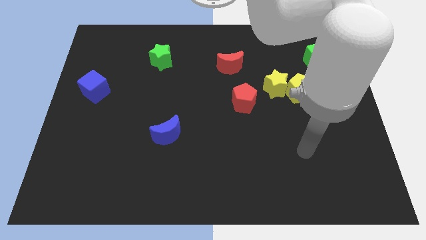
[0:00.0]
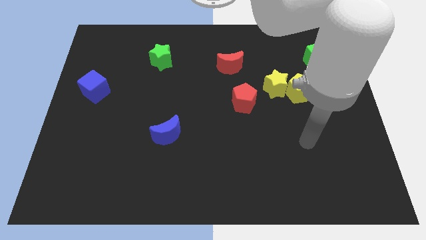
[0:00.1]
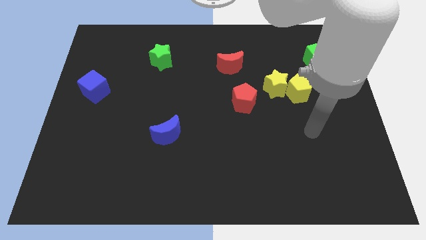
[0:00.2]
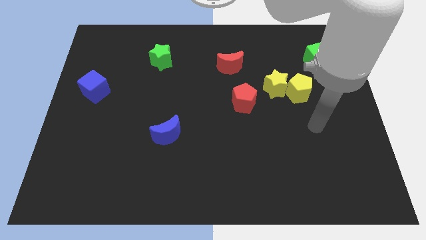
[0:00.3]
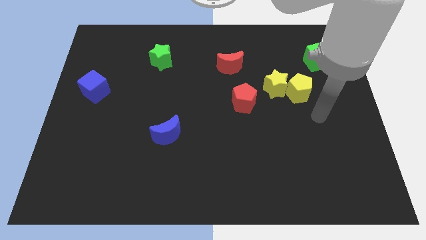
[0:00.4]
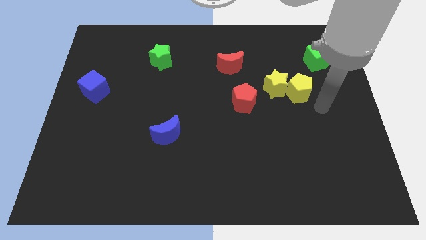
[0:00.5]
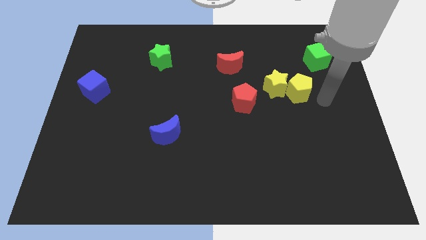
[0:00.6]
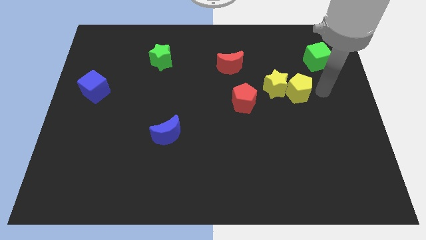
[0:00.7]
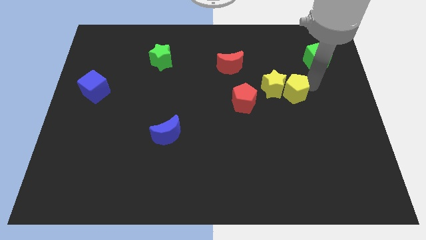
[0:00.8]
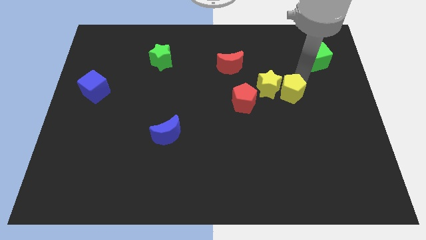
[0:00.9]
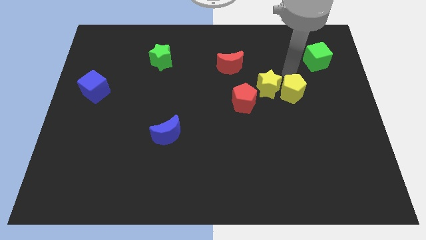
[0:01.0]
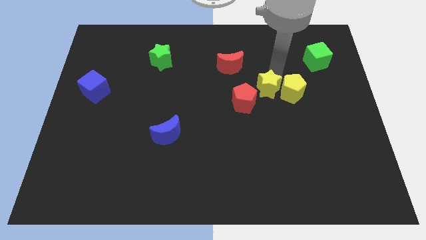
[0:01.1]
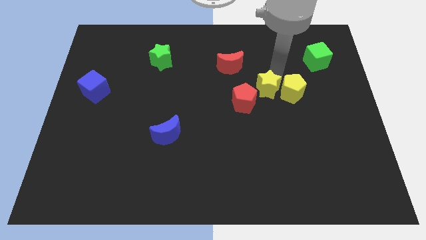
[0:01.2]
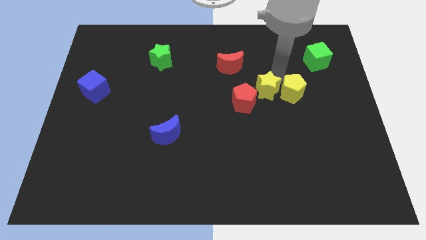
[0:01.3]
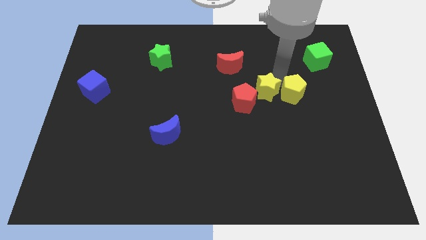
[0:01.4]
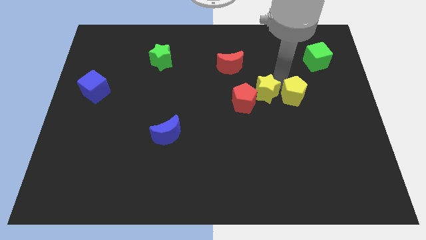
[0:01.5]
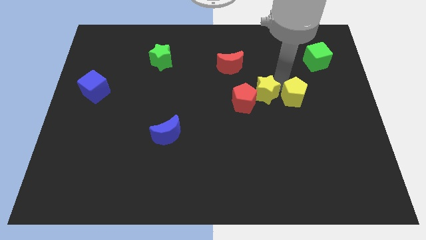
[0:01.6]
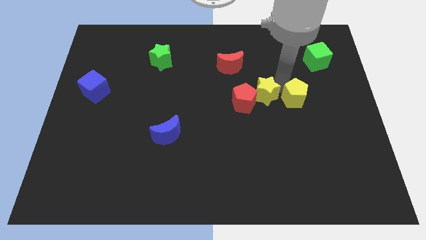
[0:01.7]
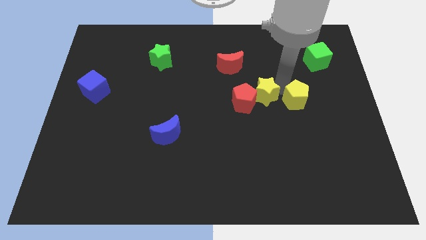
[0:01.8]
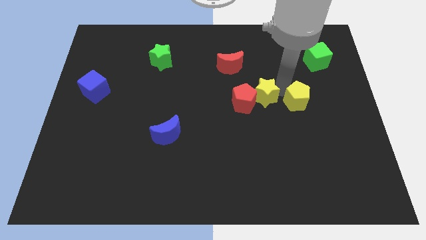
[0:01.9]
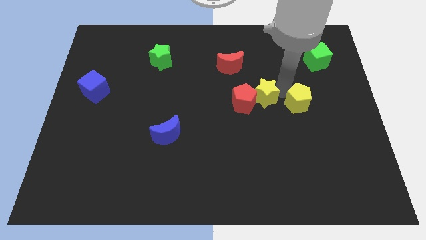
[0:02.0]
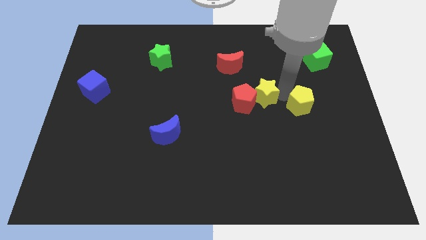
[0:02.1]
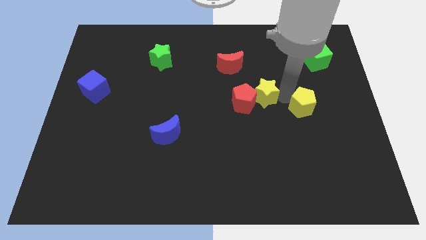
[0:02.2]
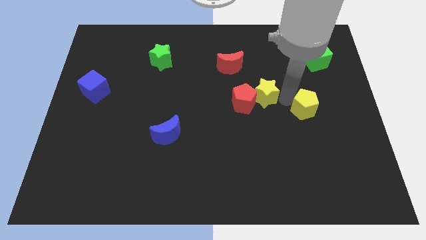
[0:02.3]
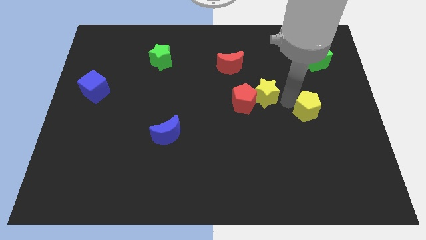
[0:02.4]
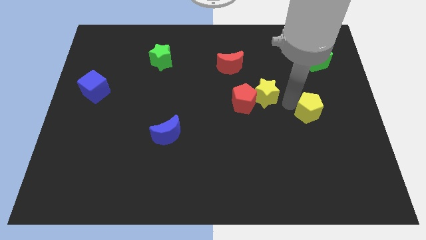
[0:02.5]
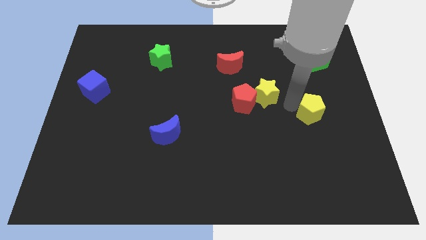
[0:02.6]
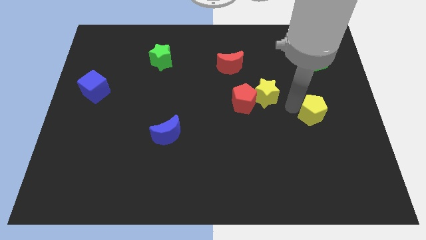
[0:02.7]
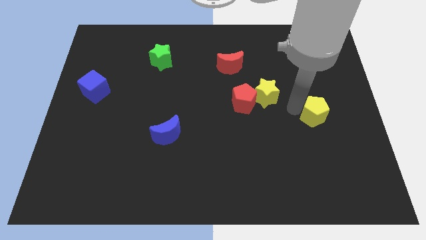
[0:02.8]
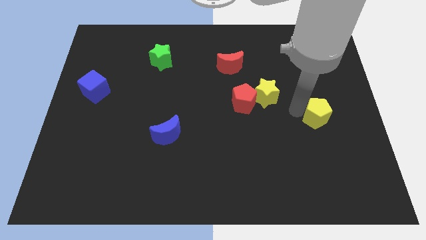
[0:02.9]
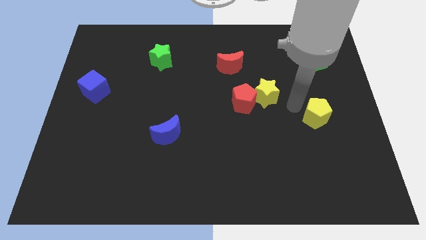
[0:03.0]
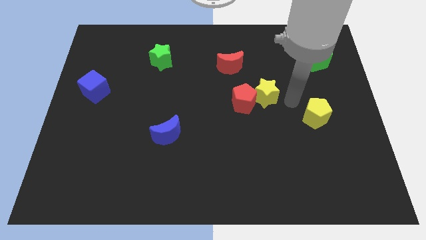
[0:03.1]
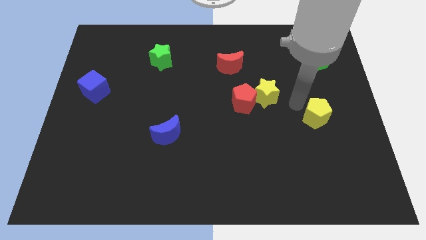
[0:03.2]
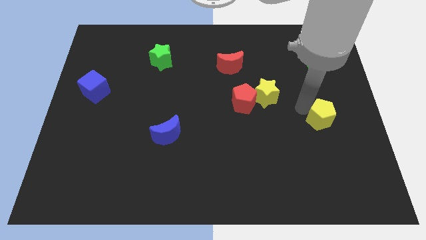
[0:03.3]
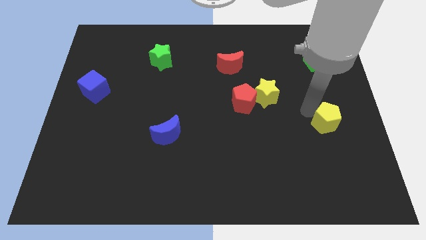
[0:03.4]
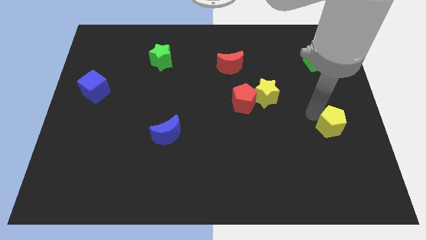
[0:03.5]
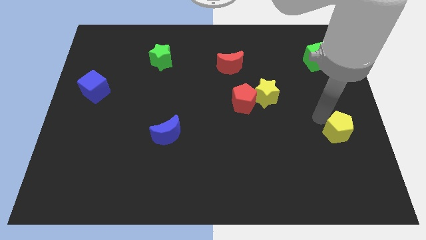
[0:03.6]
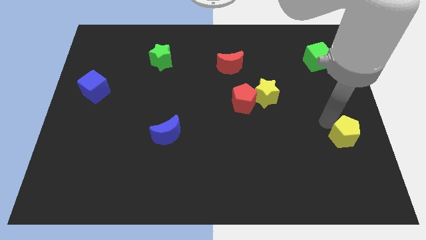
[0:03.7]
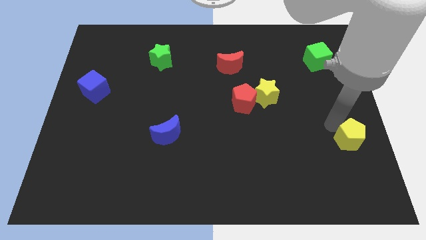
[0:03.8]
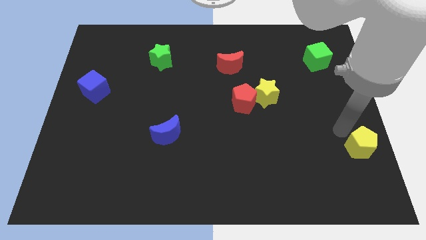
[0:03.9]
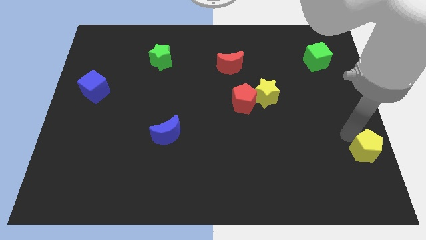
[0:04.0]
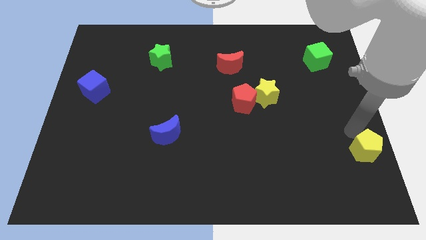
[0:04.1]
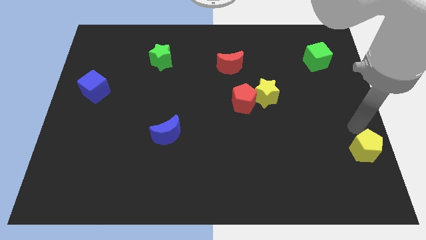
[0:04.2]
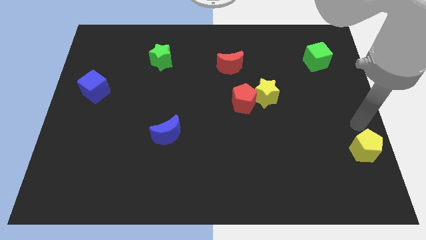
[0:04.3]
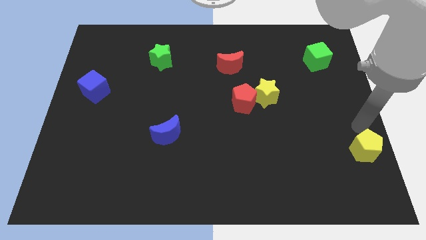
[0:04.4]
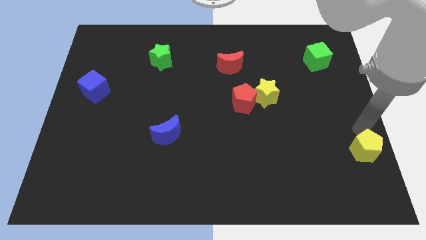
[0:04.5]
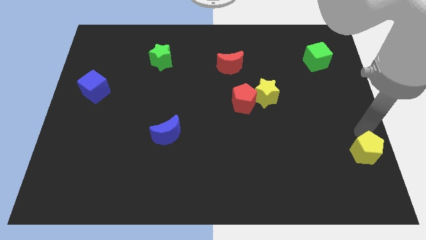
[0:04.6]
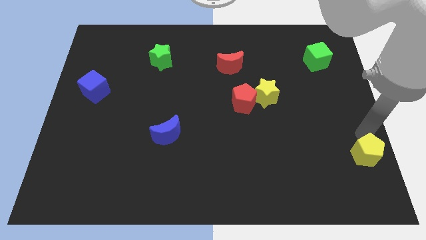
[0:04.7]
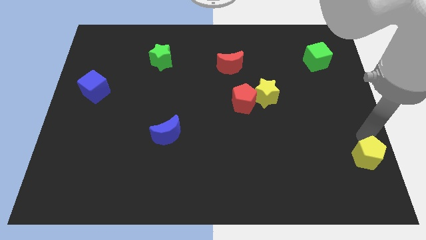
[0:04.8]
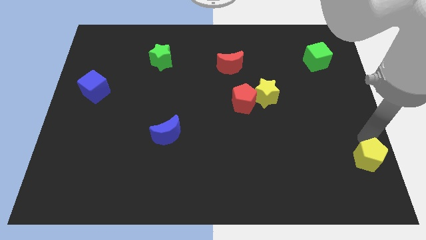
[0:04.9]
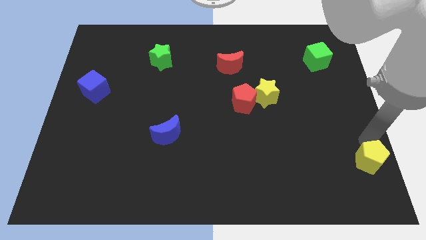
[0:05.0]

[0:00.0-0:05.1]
slide the yellow pentagon to the bottom right of the board

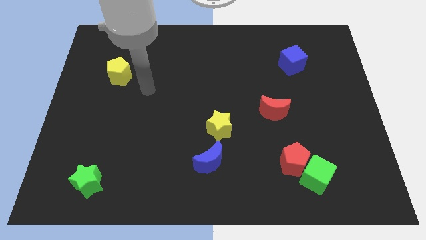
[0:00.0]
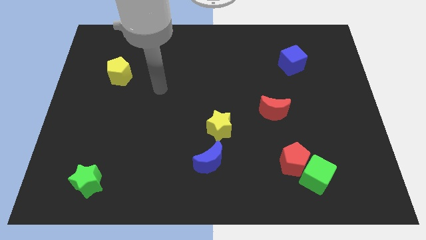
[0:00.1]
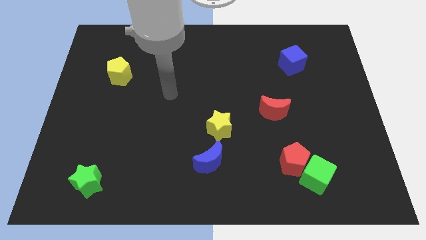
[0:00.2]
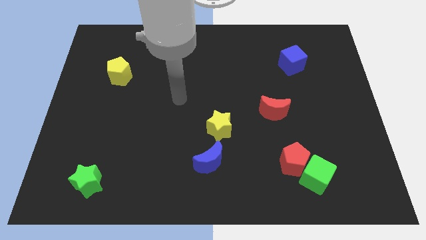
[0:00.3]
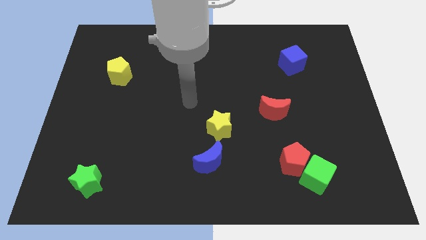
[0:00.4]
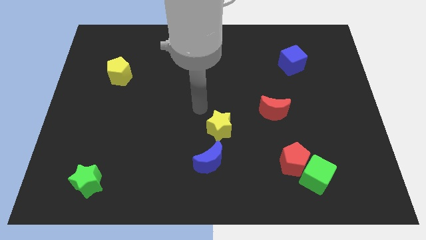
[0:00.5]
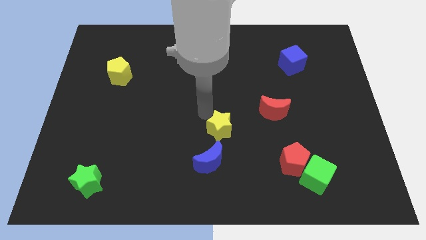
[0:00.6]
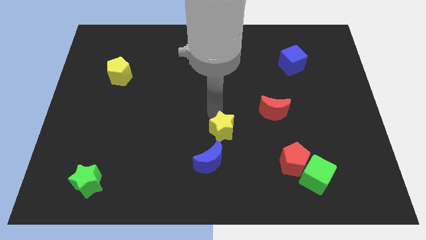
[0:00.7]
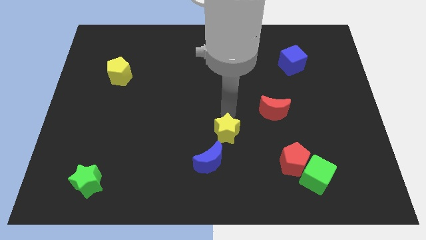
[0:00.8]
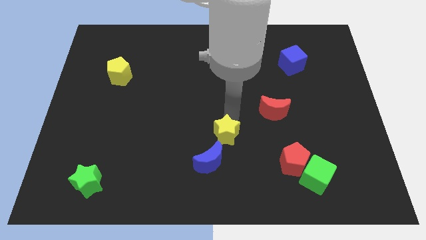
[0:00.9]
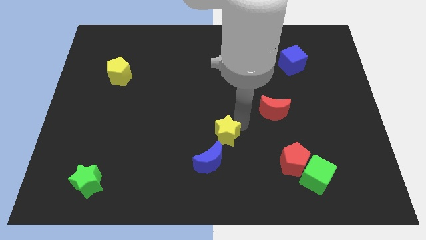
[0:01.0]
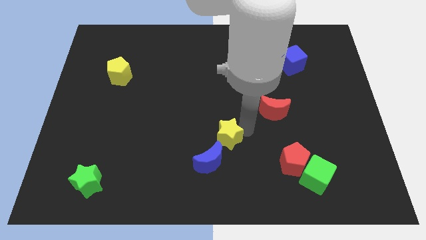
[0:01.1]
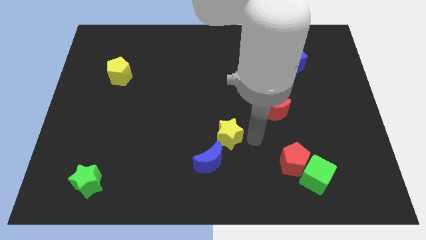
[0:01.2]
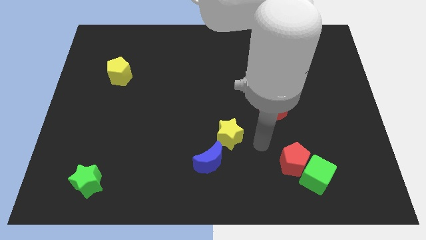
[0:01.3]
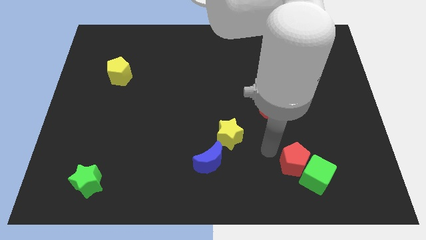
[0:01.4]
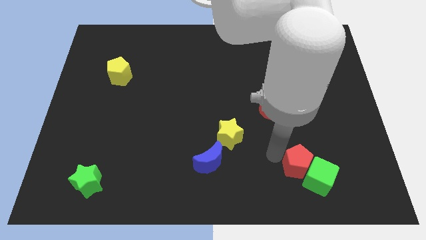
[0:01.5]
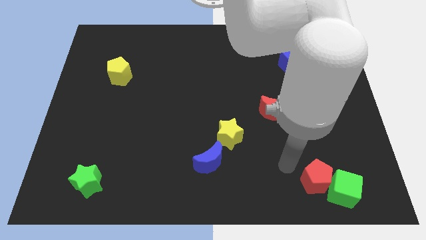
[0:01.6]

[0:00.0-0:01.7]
move the green cube to the bottom right

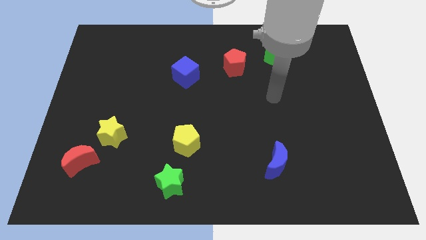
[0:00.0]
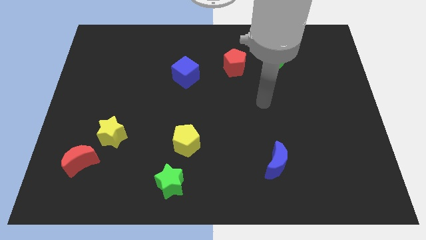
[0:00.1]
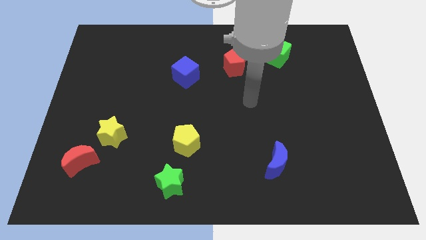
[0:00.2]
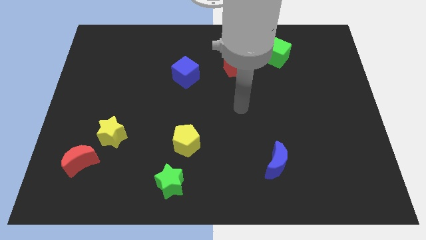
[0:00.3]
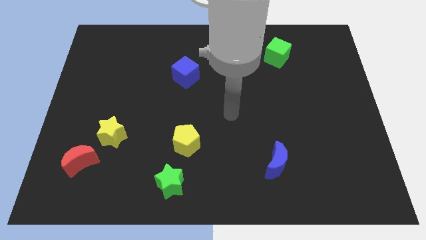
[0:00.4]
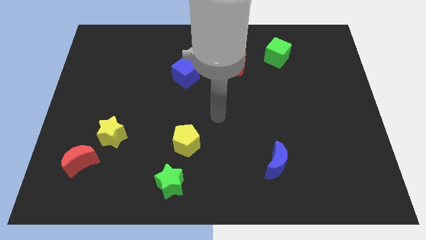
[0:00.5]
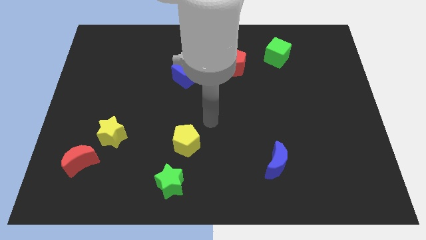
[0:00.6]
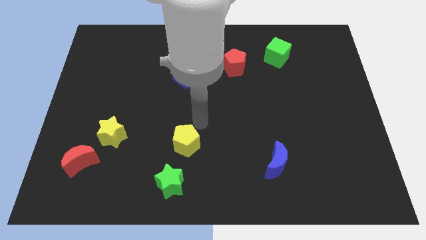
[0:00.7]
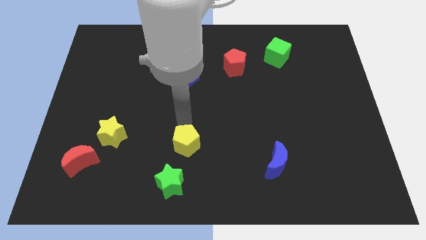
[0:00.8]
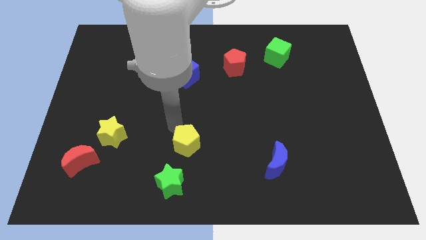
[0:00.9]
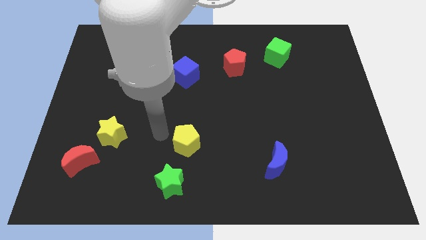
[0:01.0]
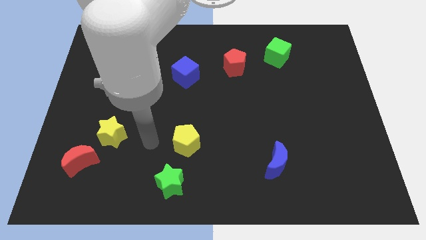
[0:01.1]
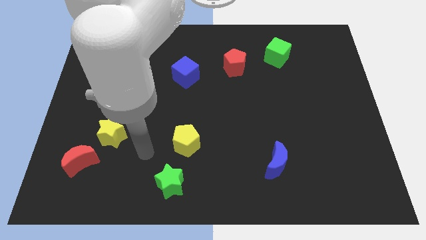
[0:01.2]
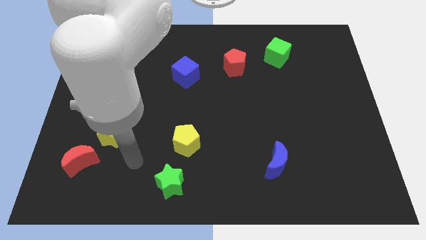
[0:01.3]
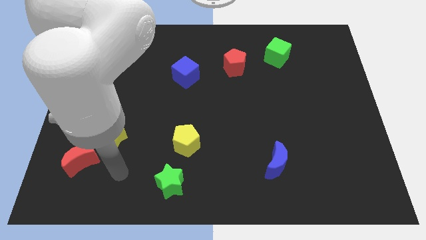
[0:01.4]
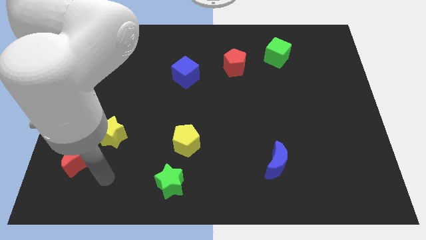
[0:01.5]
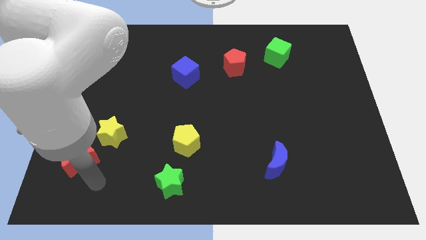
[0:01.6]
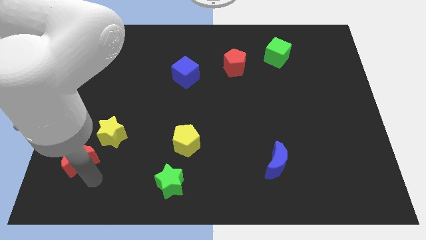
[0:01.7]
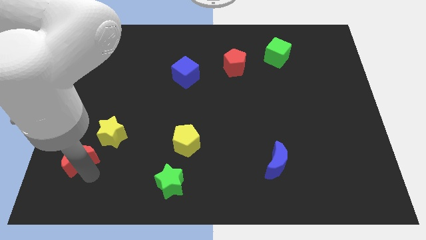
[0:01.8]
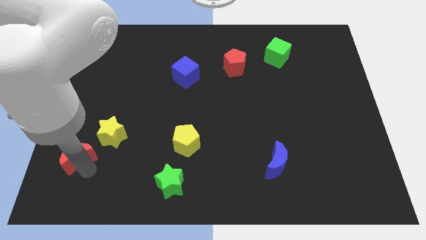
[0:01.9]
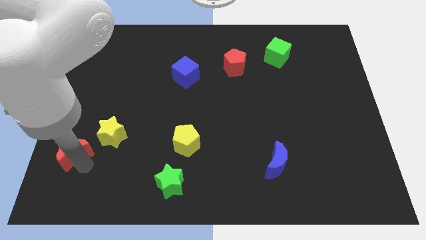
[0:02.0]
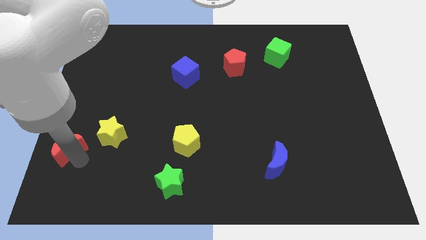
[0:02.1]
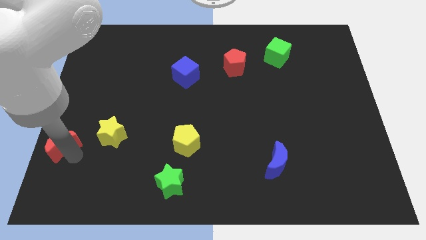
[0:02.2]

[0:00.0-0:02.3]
put the red moon to the left side of the board
